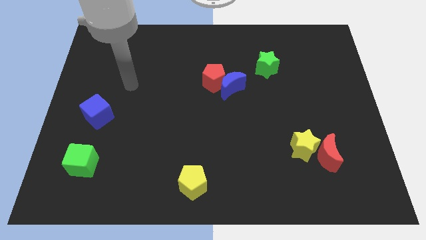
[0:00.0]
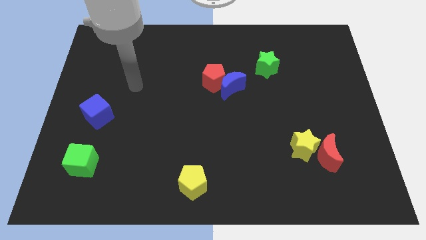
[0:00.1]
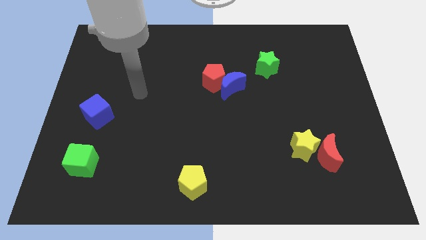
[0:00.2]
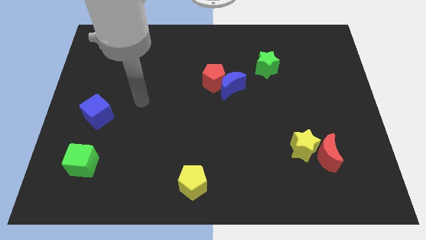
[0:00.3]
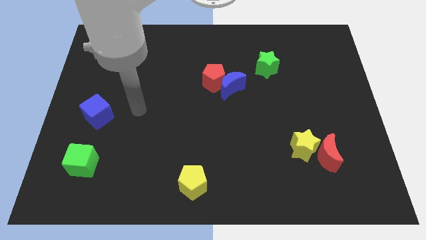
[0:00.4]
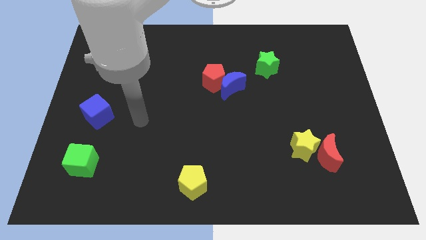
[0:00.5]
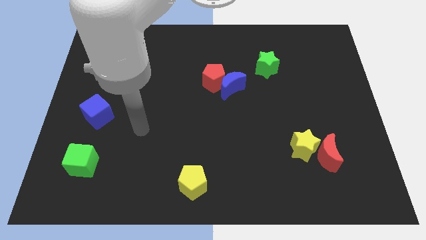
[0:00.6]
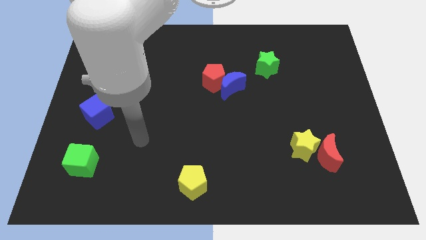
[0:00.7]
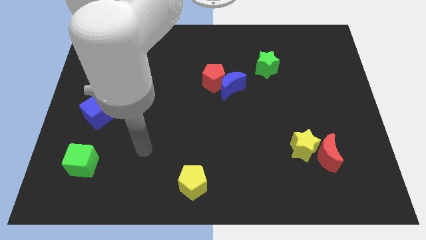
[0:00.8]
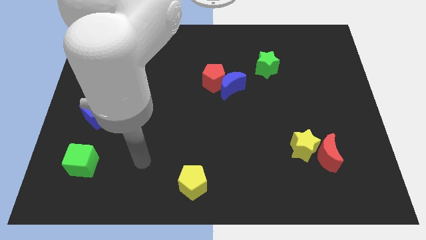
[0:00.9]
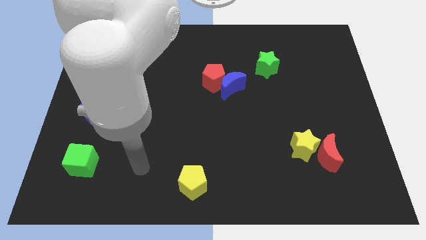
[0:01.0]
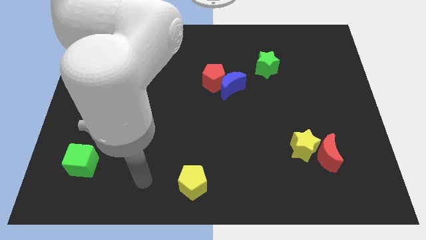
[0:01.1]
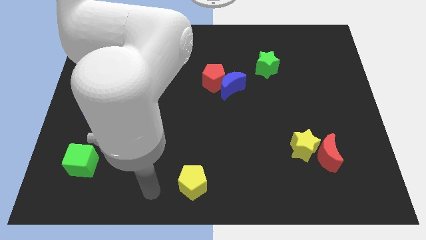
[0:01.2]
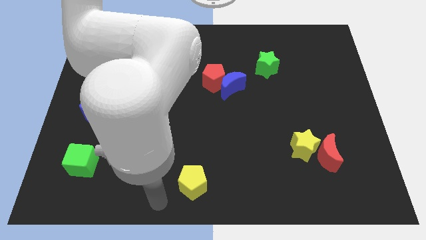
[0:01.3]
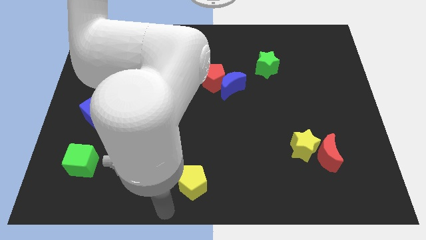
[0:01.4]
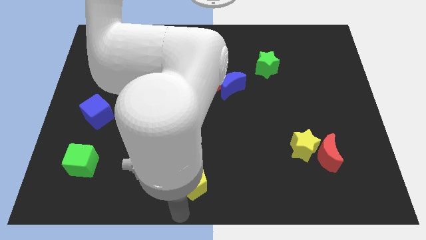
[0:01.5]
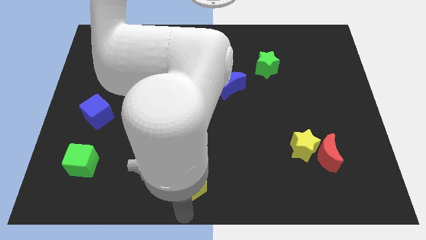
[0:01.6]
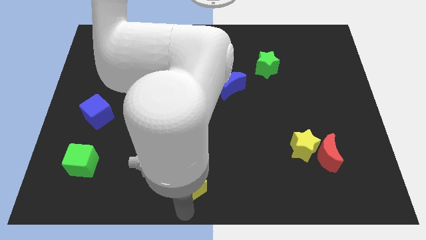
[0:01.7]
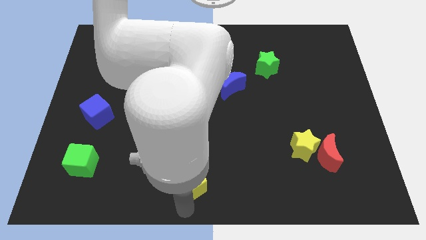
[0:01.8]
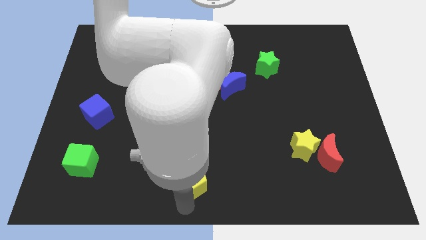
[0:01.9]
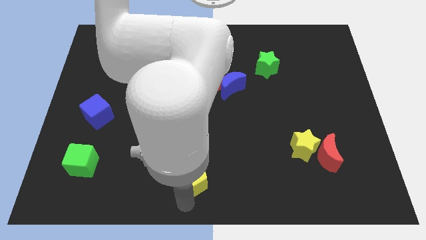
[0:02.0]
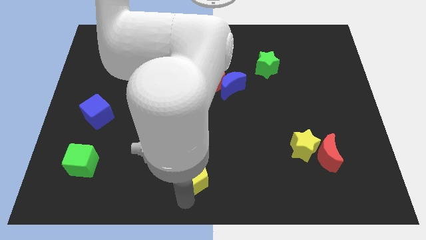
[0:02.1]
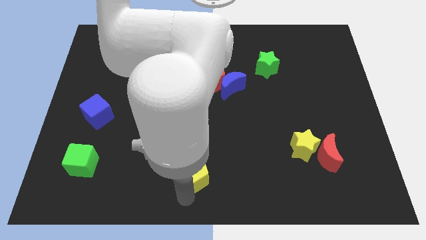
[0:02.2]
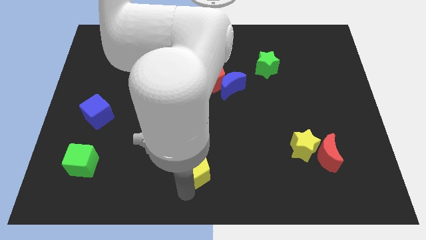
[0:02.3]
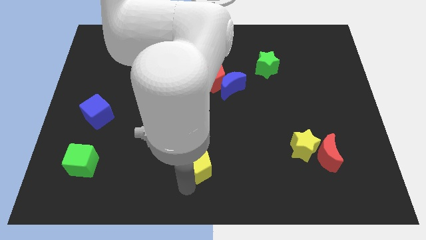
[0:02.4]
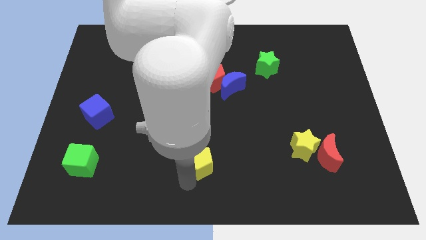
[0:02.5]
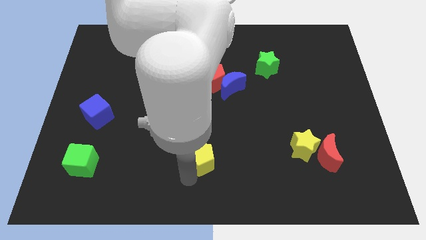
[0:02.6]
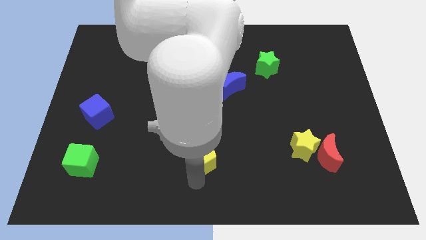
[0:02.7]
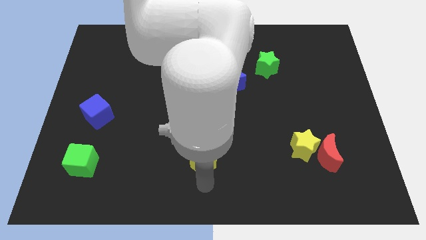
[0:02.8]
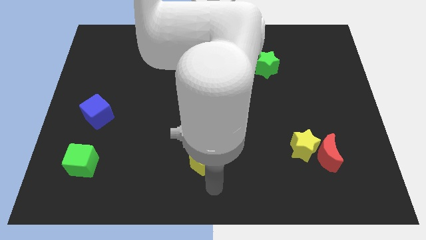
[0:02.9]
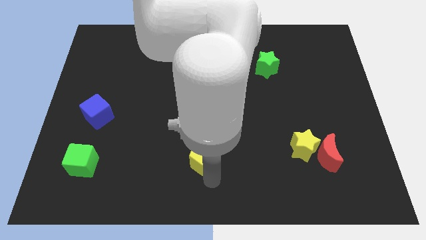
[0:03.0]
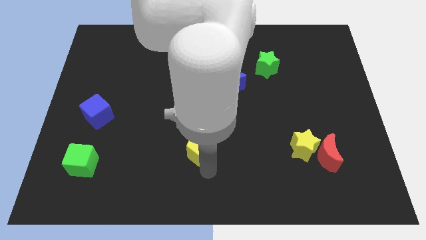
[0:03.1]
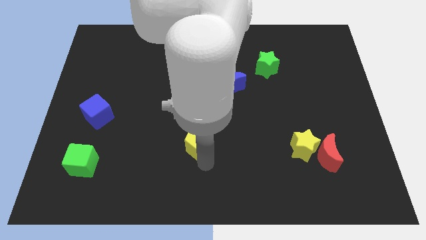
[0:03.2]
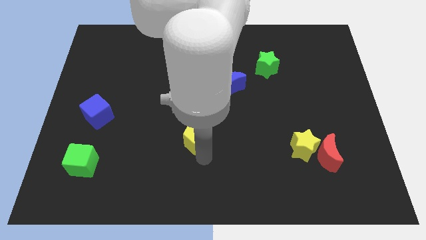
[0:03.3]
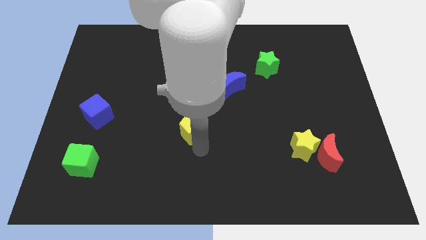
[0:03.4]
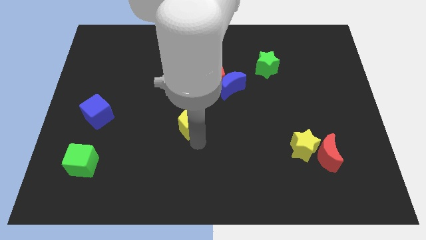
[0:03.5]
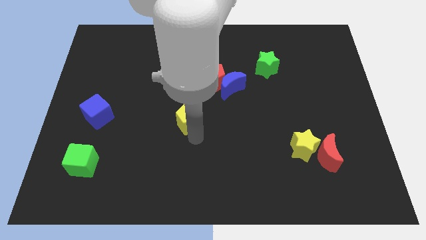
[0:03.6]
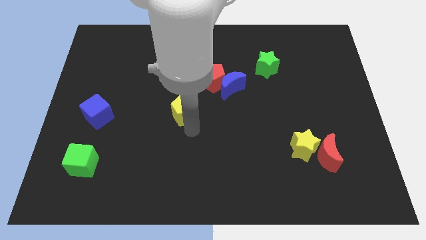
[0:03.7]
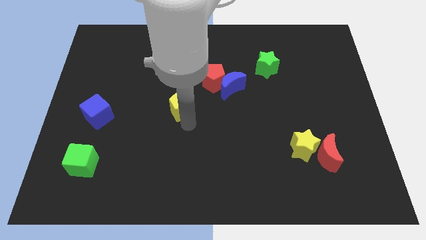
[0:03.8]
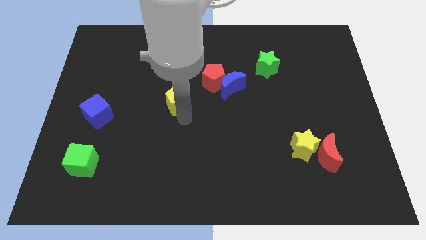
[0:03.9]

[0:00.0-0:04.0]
slide the yellow pentagon up

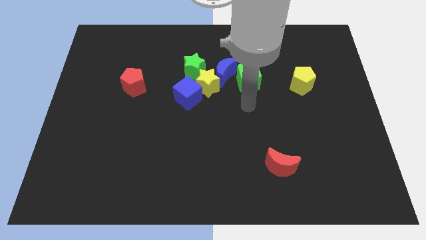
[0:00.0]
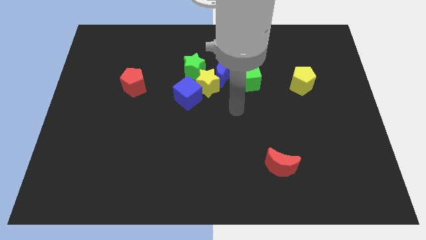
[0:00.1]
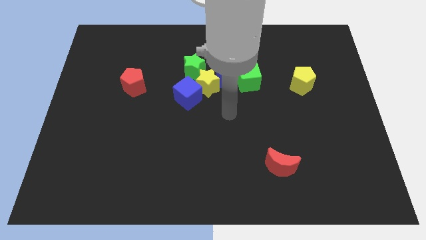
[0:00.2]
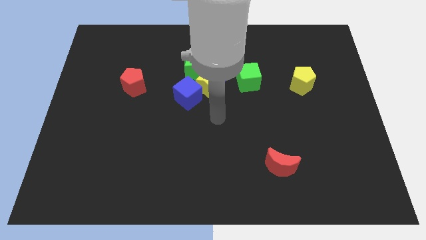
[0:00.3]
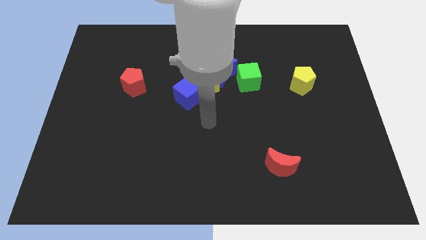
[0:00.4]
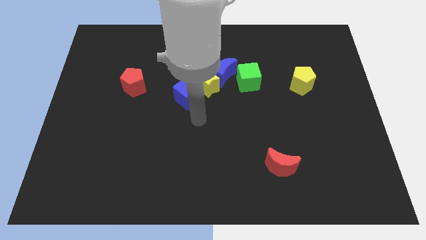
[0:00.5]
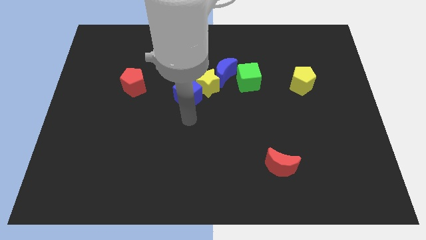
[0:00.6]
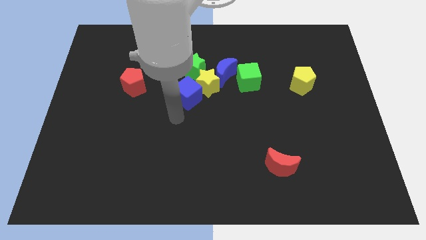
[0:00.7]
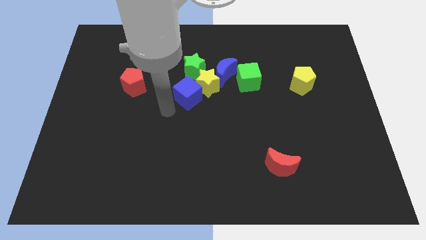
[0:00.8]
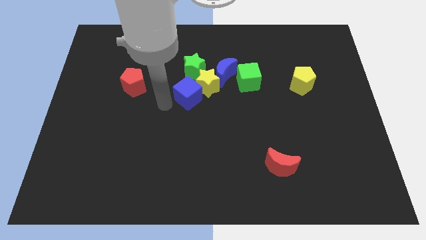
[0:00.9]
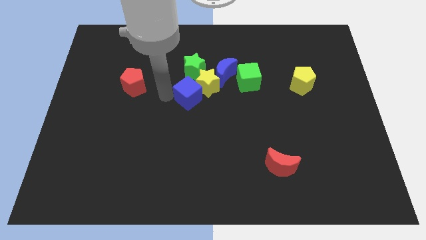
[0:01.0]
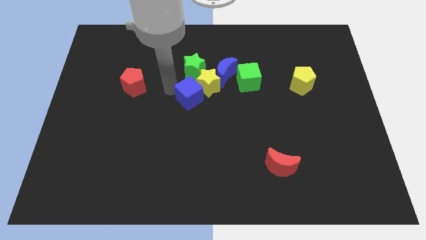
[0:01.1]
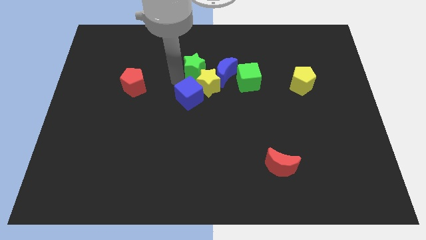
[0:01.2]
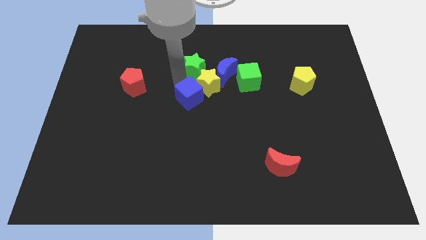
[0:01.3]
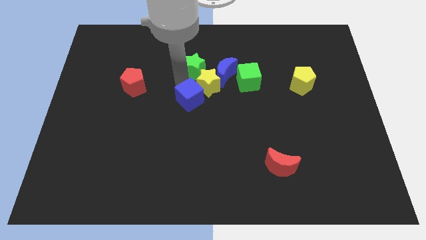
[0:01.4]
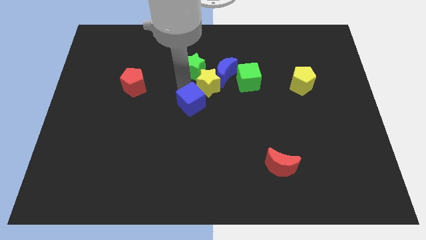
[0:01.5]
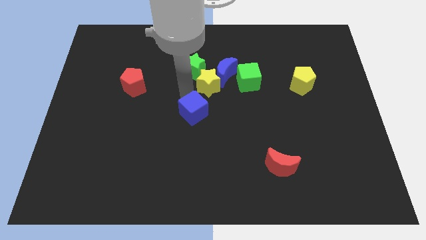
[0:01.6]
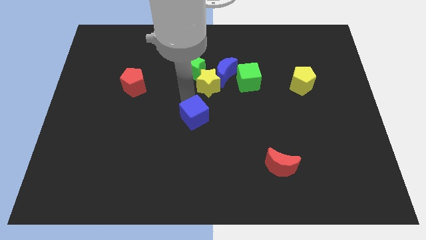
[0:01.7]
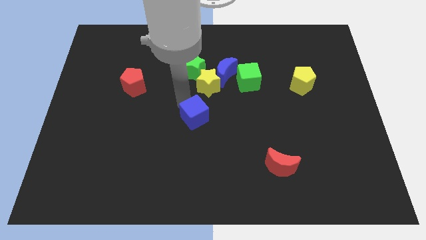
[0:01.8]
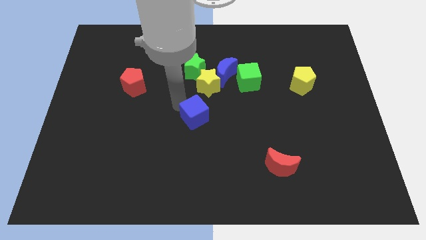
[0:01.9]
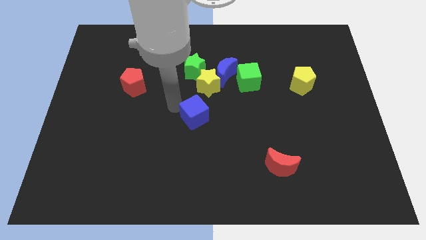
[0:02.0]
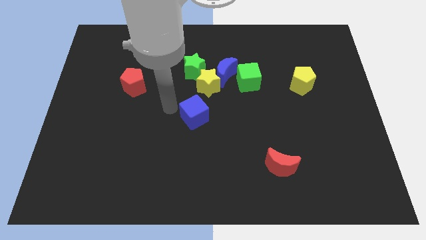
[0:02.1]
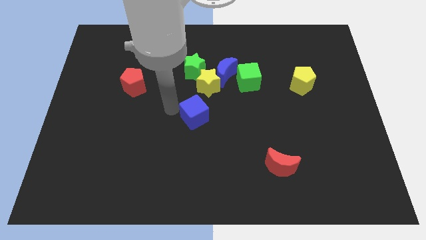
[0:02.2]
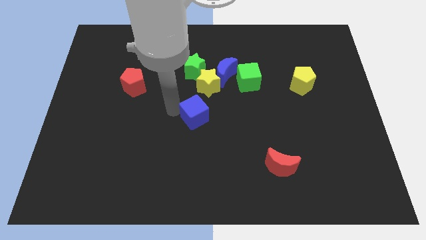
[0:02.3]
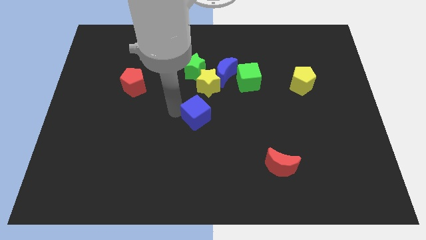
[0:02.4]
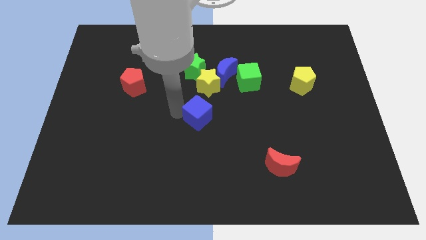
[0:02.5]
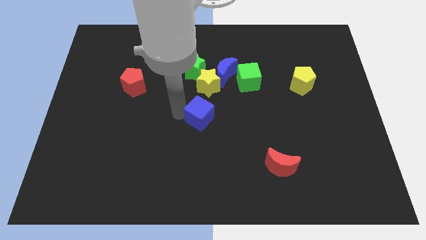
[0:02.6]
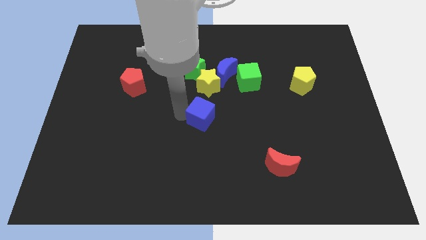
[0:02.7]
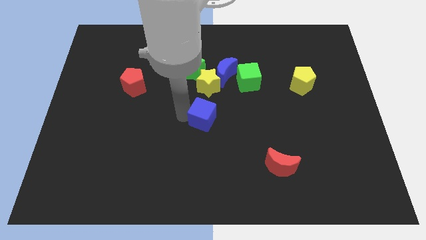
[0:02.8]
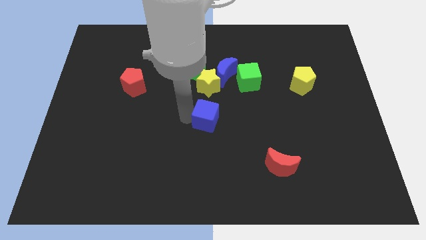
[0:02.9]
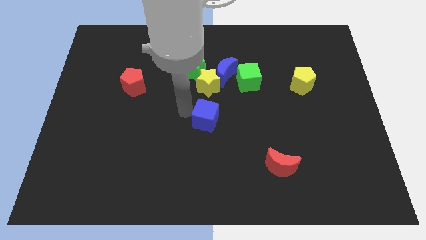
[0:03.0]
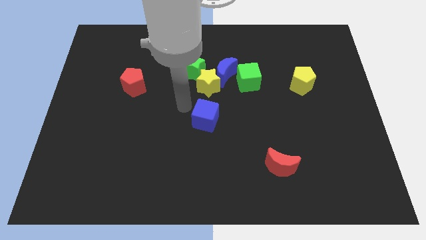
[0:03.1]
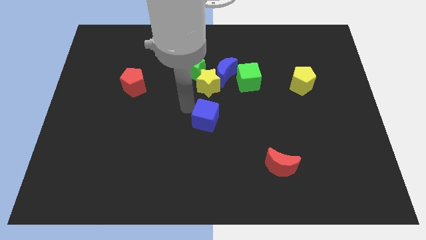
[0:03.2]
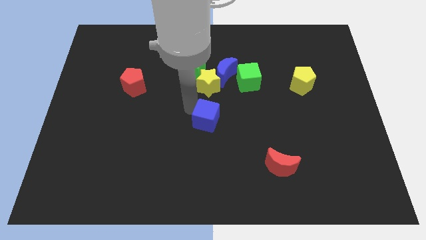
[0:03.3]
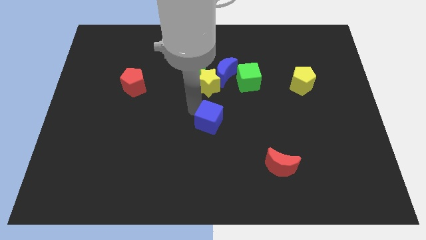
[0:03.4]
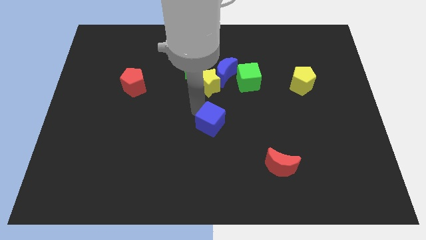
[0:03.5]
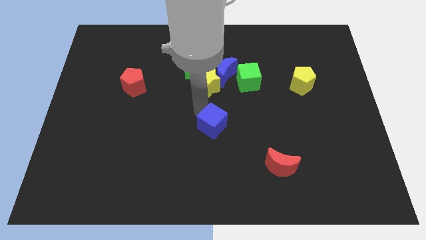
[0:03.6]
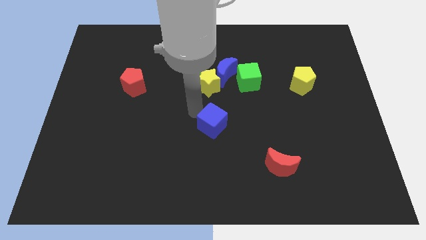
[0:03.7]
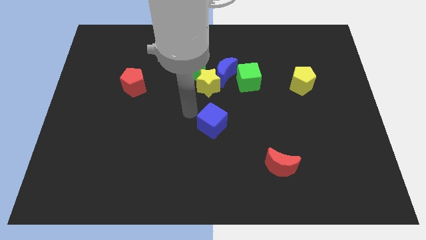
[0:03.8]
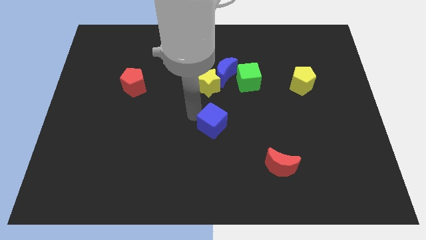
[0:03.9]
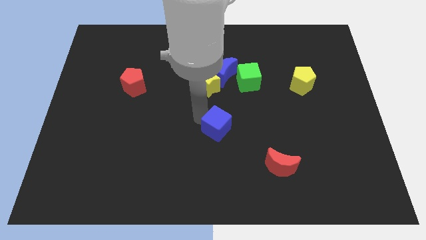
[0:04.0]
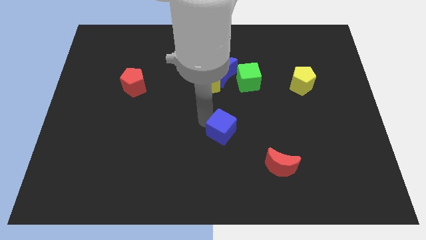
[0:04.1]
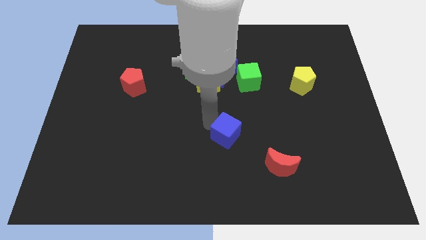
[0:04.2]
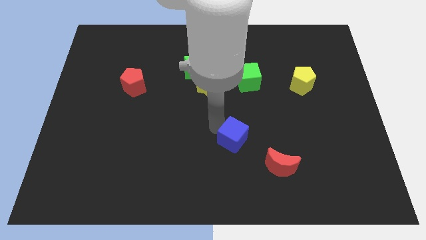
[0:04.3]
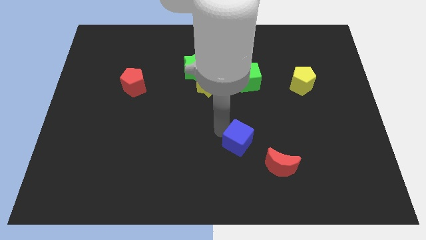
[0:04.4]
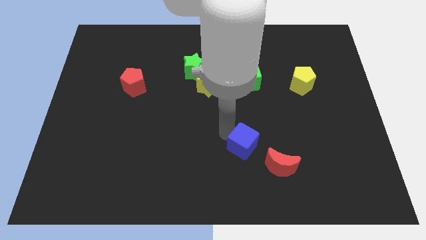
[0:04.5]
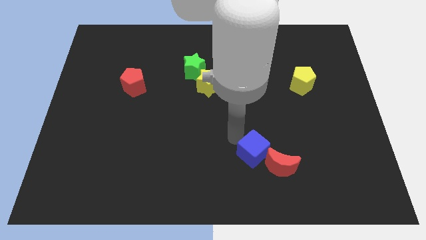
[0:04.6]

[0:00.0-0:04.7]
push the blue cube downwards and then to the right
